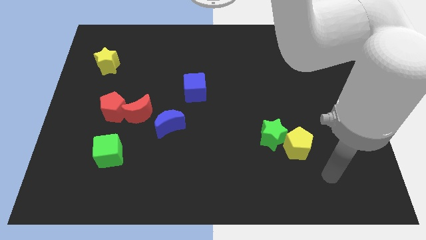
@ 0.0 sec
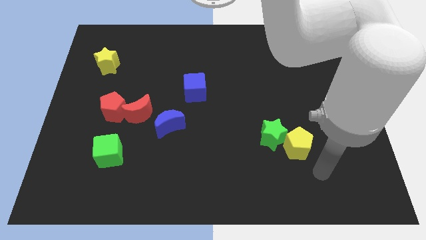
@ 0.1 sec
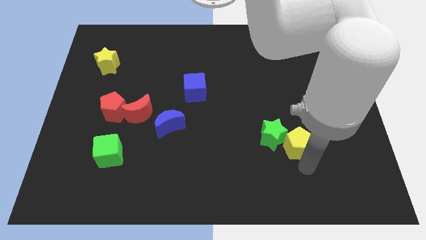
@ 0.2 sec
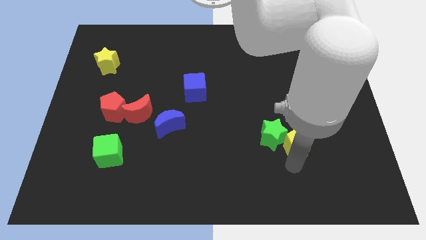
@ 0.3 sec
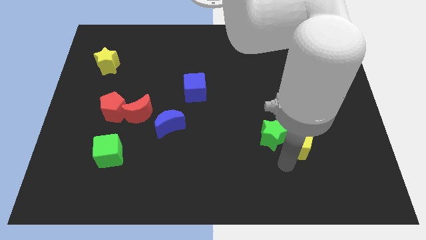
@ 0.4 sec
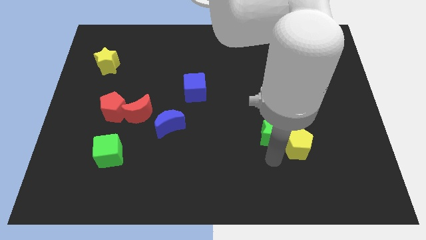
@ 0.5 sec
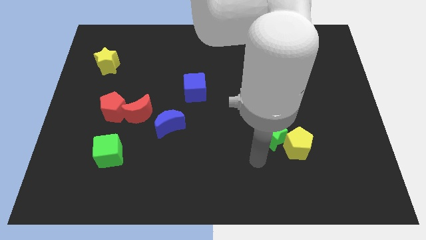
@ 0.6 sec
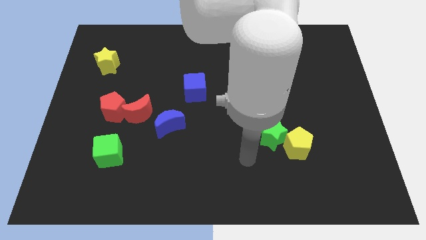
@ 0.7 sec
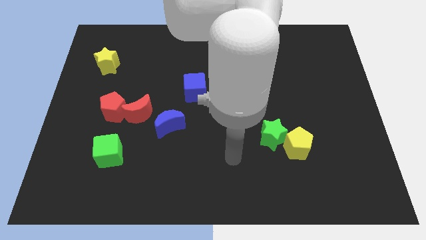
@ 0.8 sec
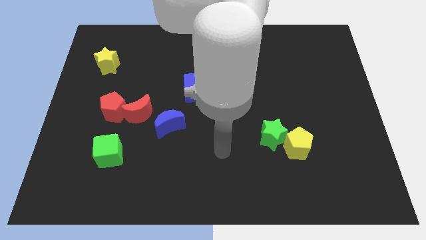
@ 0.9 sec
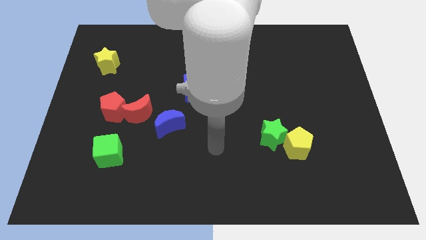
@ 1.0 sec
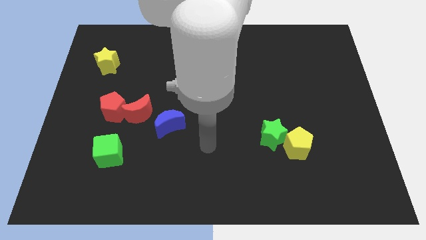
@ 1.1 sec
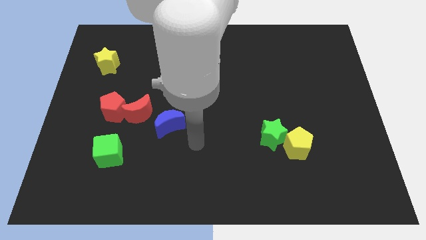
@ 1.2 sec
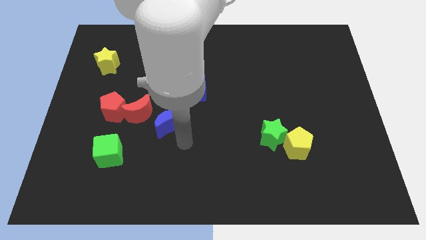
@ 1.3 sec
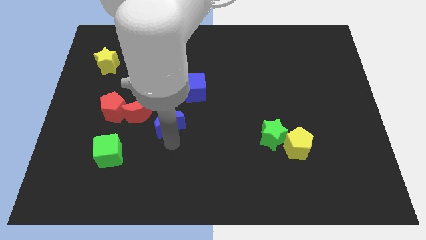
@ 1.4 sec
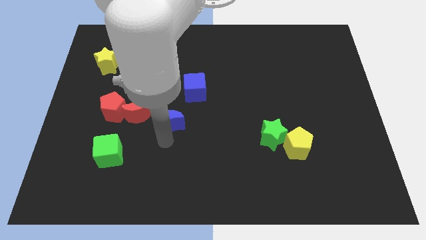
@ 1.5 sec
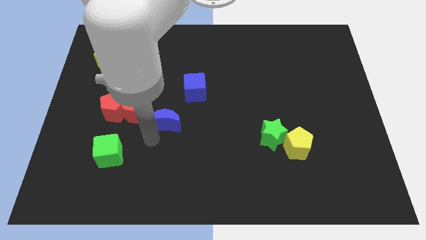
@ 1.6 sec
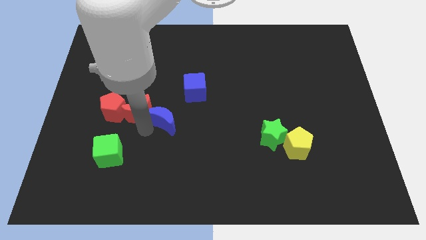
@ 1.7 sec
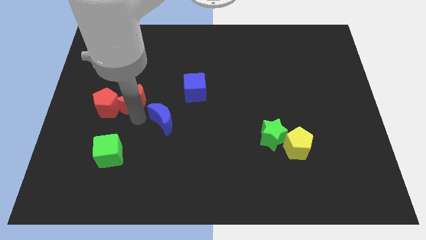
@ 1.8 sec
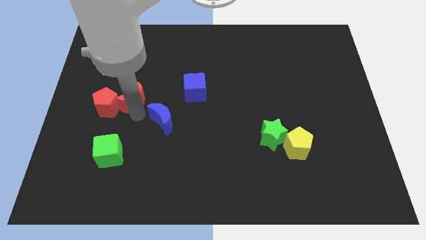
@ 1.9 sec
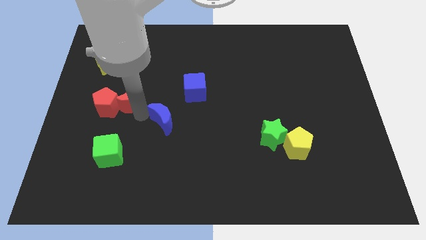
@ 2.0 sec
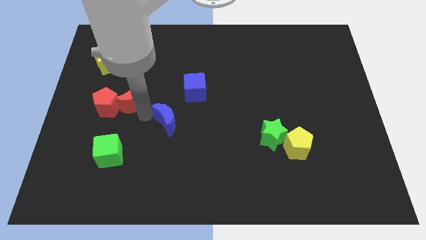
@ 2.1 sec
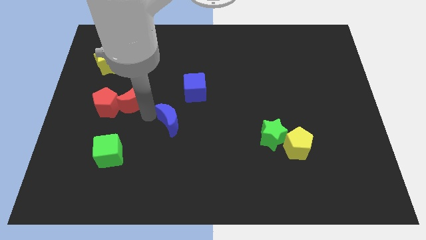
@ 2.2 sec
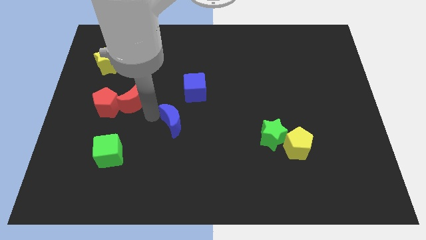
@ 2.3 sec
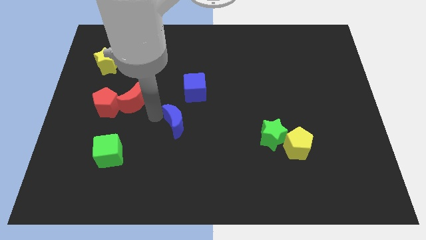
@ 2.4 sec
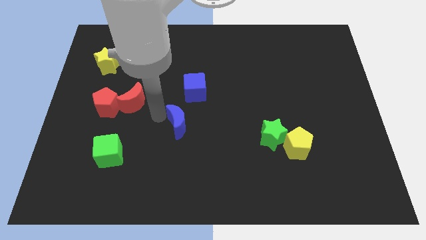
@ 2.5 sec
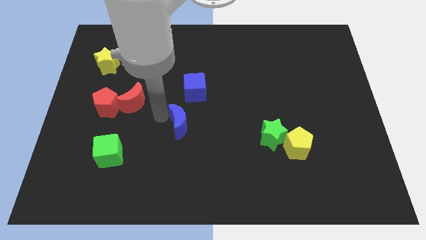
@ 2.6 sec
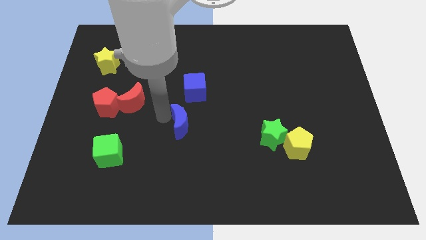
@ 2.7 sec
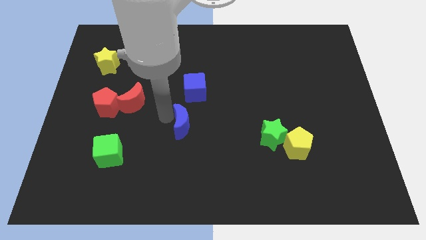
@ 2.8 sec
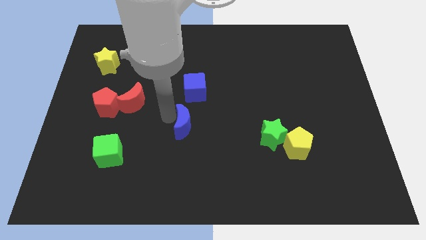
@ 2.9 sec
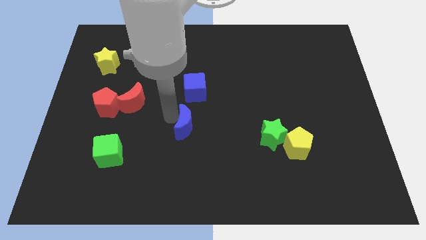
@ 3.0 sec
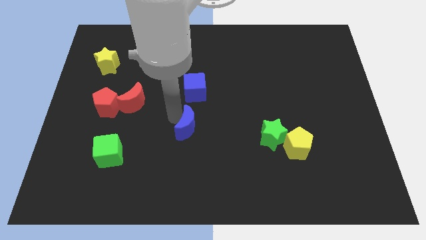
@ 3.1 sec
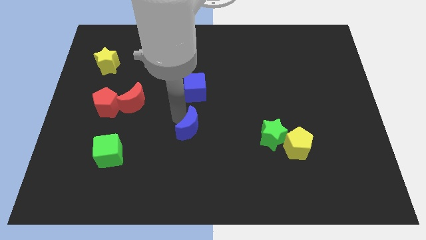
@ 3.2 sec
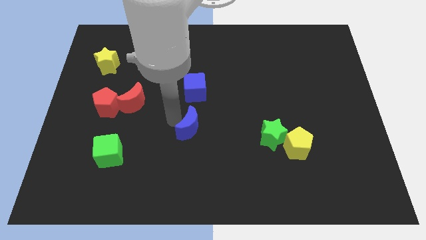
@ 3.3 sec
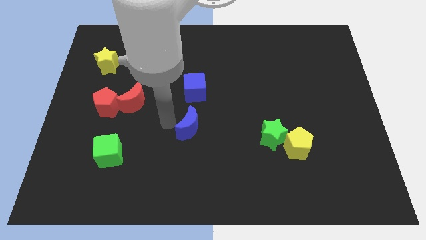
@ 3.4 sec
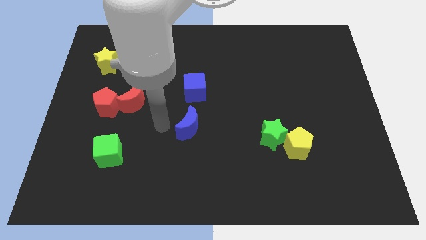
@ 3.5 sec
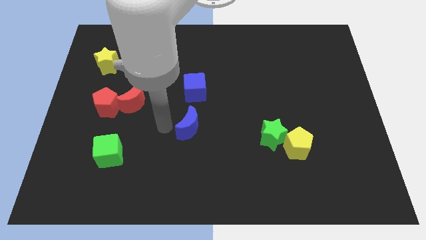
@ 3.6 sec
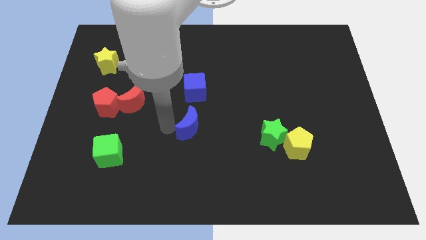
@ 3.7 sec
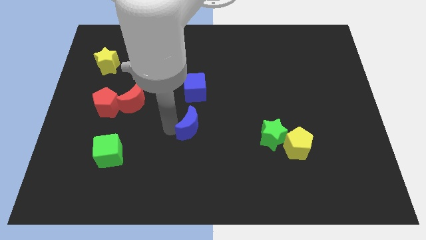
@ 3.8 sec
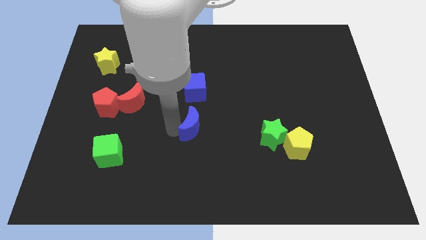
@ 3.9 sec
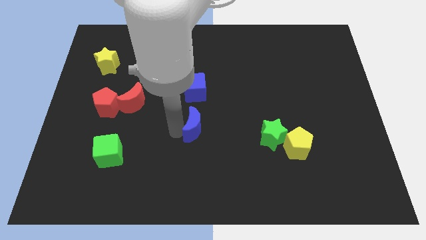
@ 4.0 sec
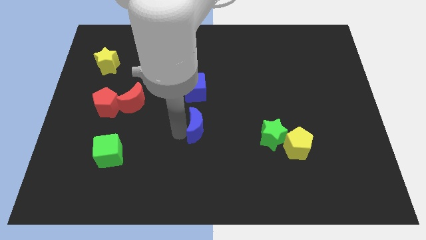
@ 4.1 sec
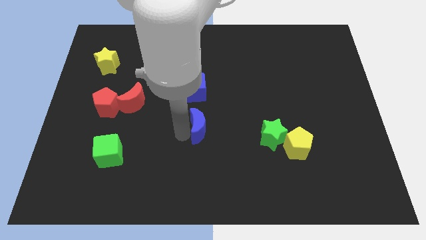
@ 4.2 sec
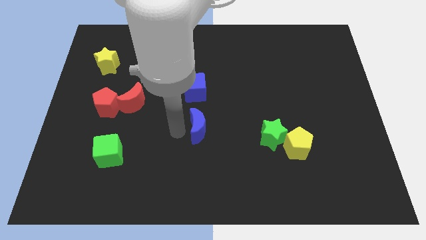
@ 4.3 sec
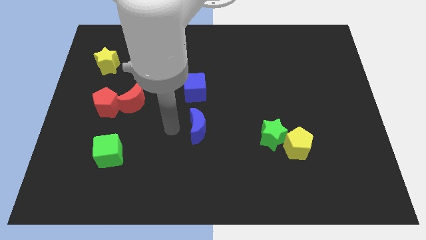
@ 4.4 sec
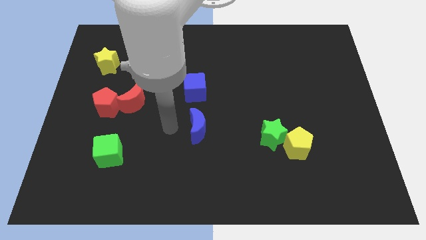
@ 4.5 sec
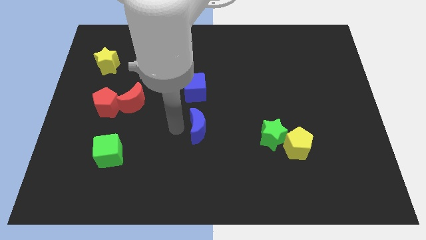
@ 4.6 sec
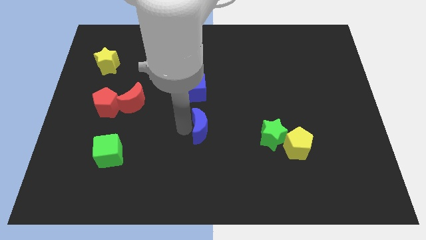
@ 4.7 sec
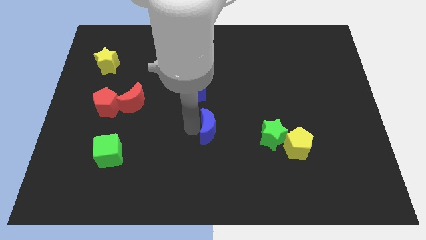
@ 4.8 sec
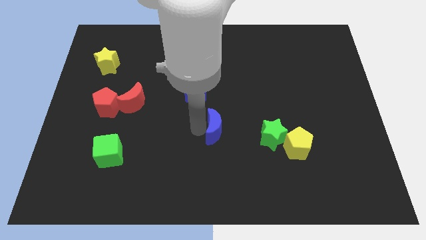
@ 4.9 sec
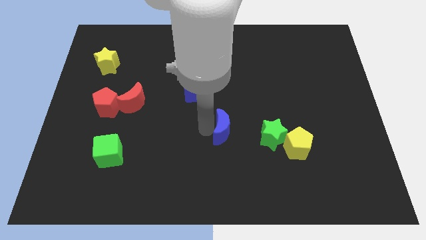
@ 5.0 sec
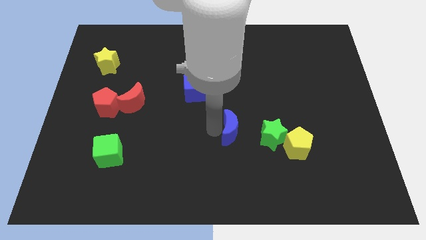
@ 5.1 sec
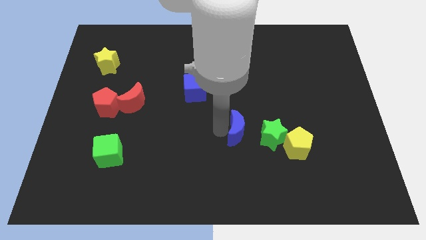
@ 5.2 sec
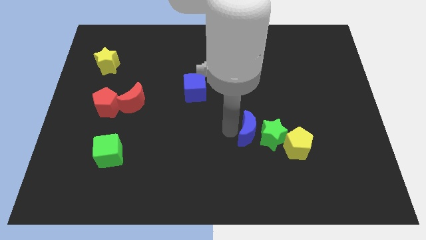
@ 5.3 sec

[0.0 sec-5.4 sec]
push the blue moon towards the green star

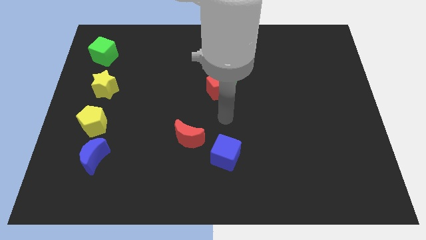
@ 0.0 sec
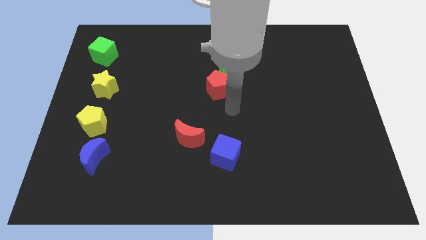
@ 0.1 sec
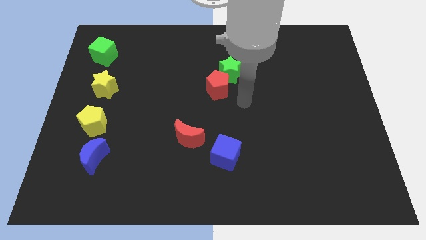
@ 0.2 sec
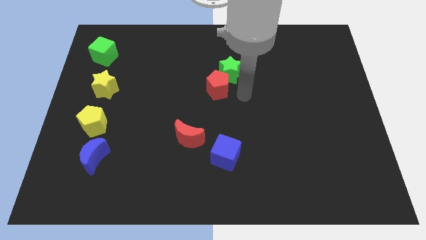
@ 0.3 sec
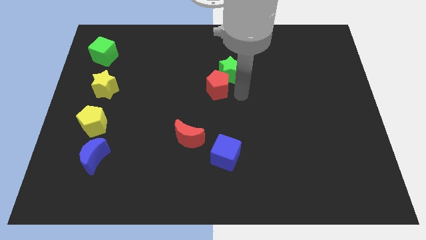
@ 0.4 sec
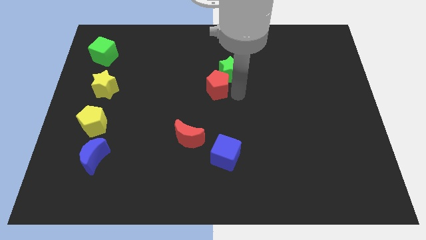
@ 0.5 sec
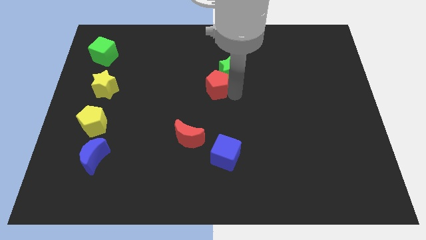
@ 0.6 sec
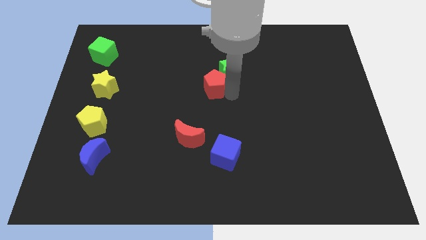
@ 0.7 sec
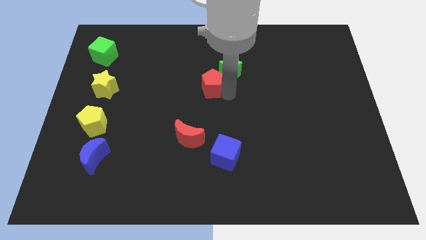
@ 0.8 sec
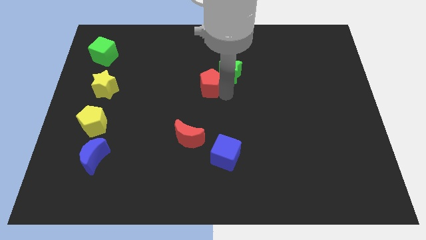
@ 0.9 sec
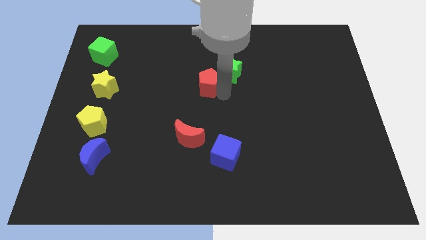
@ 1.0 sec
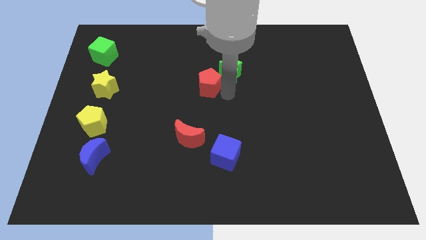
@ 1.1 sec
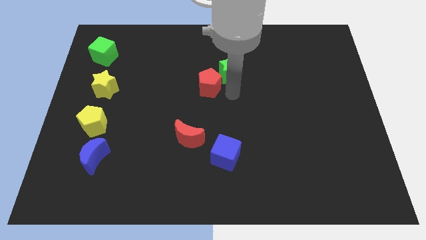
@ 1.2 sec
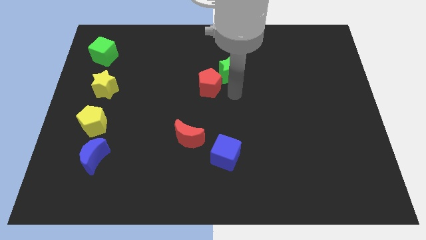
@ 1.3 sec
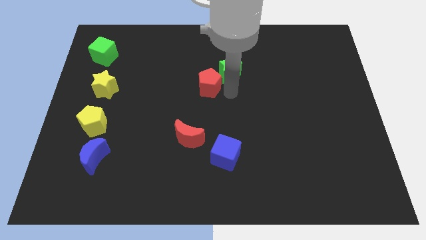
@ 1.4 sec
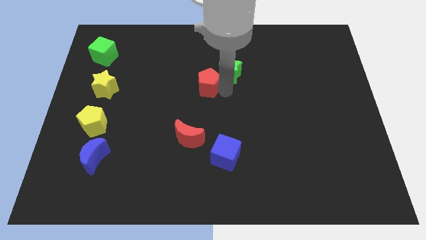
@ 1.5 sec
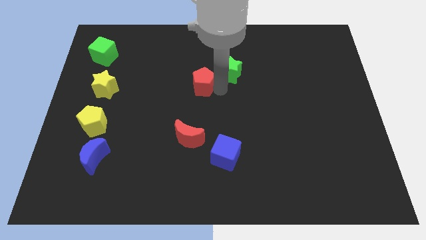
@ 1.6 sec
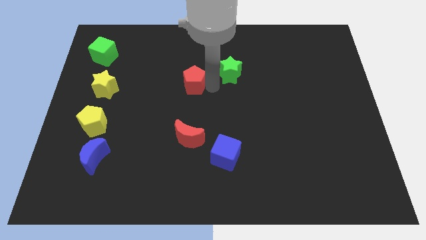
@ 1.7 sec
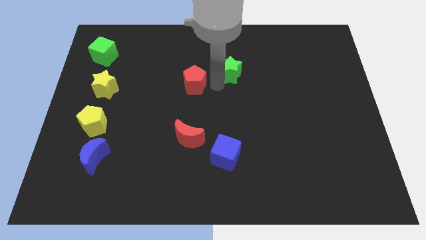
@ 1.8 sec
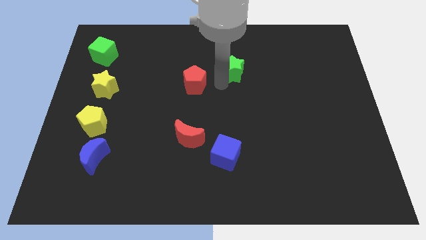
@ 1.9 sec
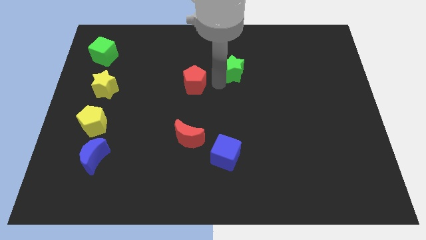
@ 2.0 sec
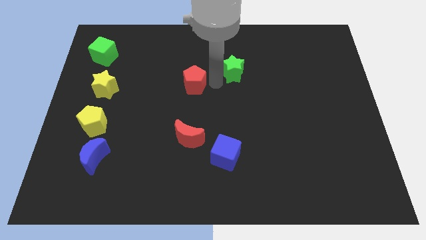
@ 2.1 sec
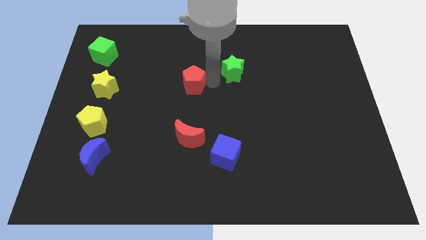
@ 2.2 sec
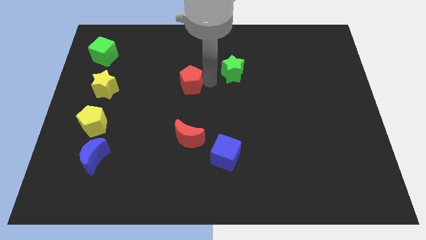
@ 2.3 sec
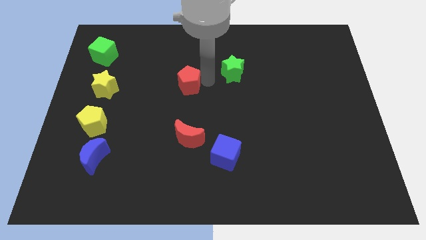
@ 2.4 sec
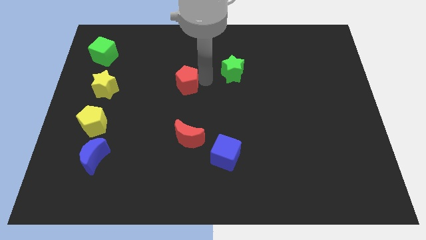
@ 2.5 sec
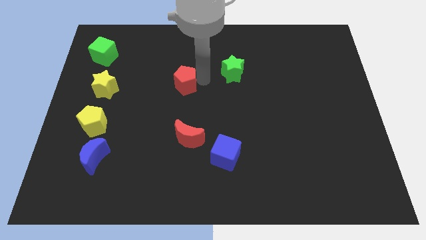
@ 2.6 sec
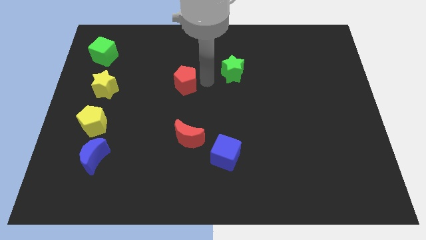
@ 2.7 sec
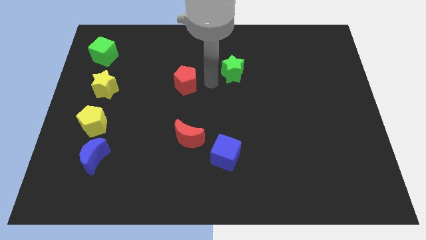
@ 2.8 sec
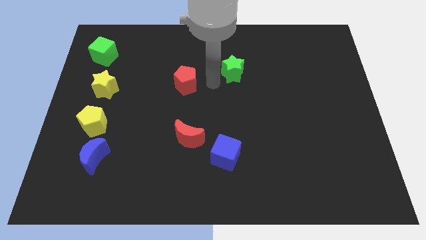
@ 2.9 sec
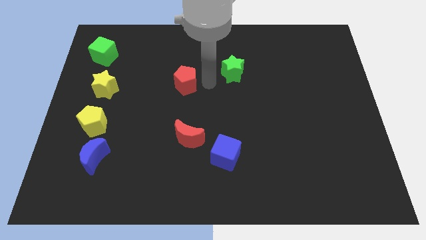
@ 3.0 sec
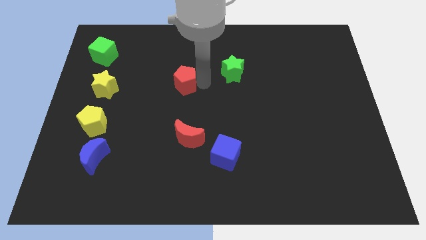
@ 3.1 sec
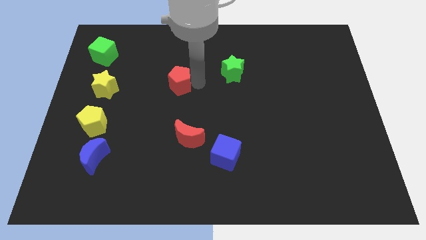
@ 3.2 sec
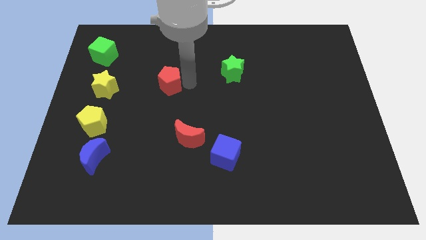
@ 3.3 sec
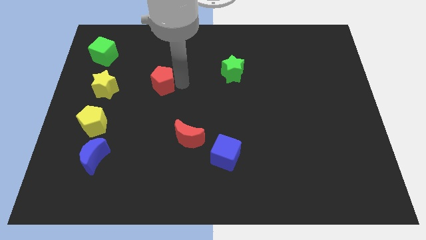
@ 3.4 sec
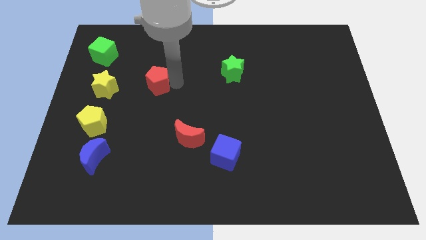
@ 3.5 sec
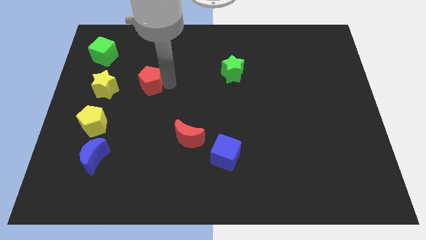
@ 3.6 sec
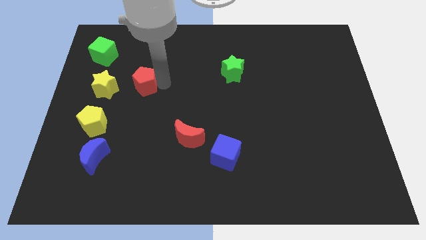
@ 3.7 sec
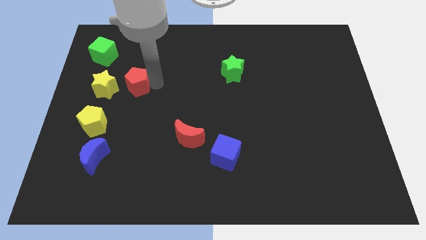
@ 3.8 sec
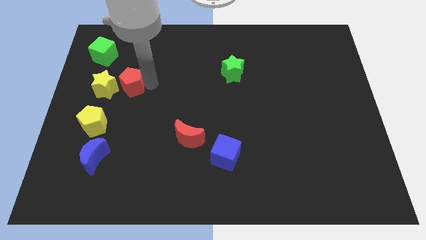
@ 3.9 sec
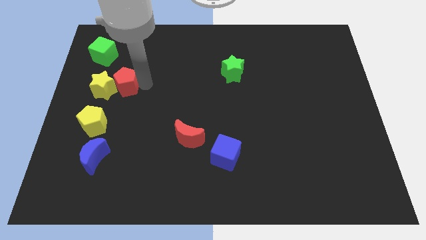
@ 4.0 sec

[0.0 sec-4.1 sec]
slide the red pentagon close to the yellow star
